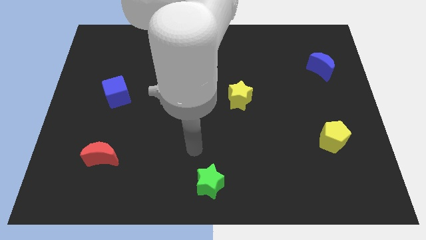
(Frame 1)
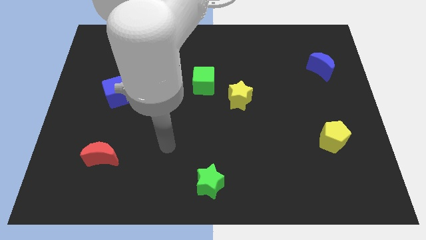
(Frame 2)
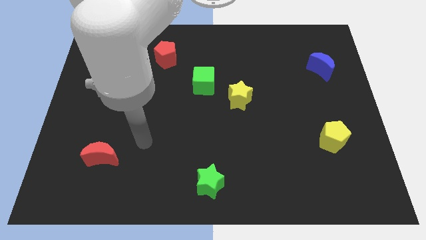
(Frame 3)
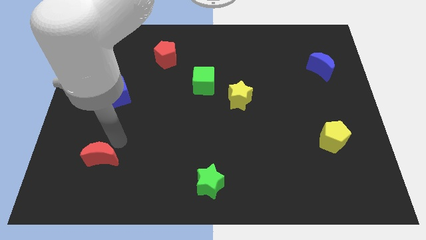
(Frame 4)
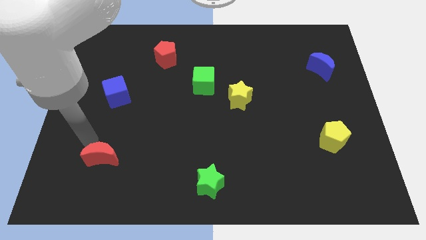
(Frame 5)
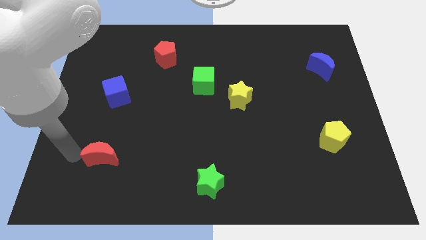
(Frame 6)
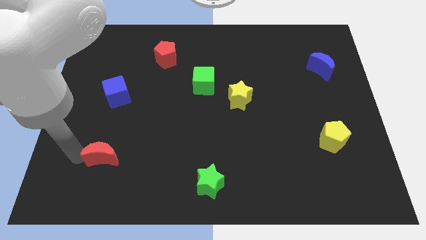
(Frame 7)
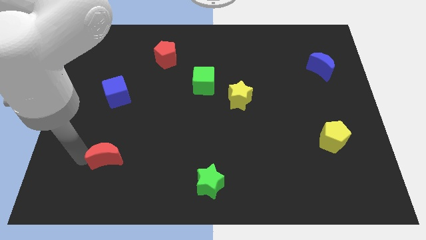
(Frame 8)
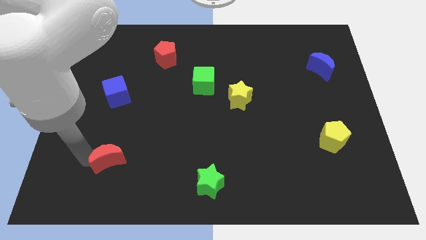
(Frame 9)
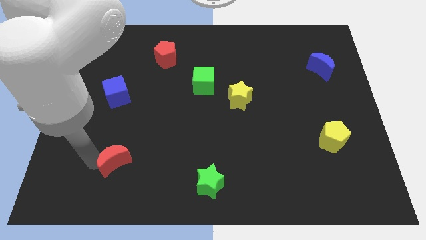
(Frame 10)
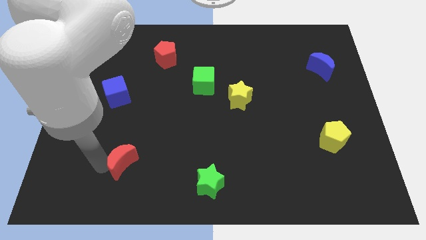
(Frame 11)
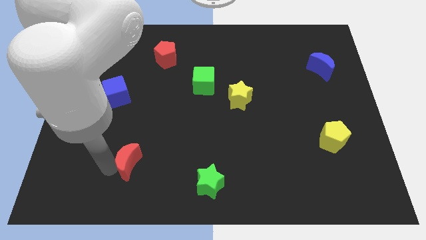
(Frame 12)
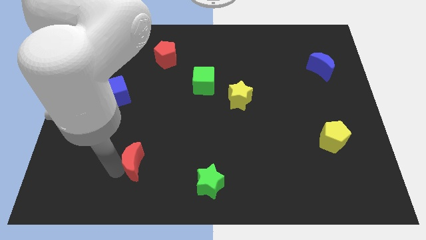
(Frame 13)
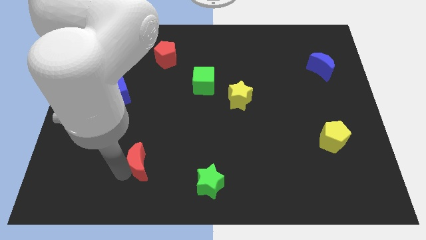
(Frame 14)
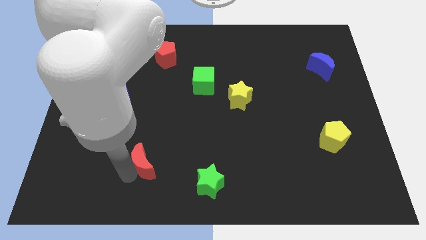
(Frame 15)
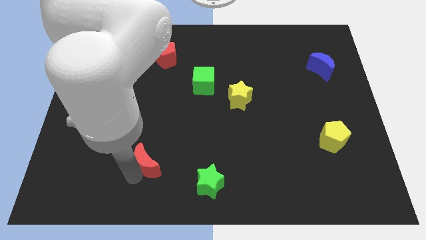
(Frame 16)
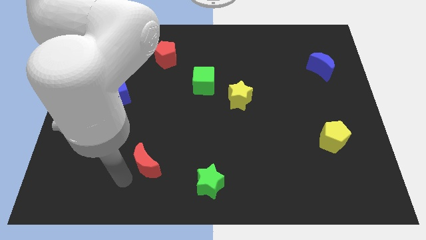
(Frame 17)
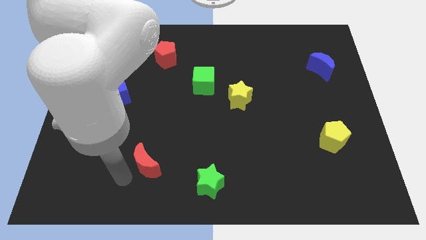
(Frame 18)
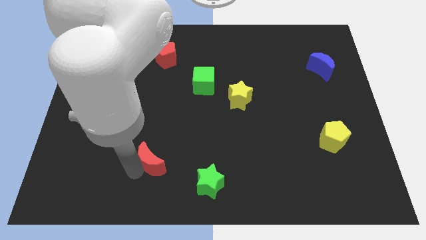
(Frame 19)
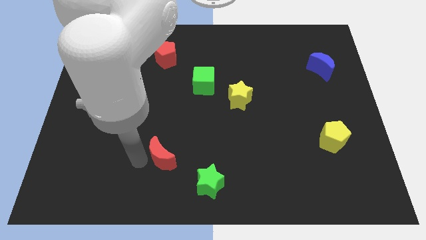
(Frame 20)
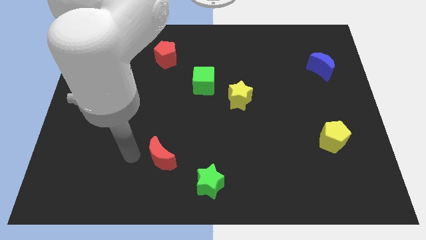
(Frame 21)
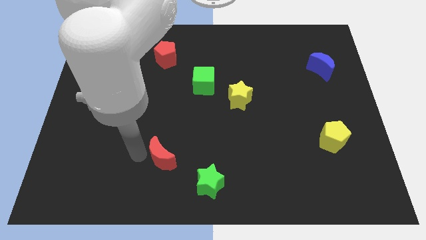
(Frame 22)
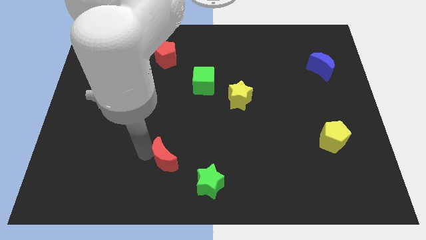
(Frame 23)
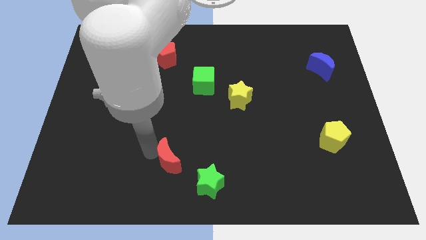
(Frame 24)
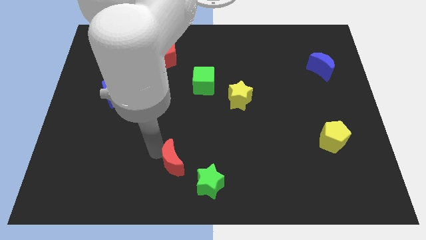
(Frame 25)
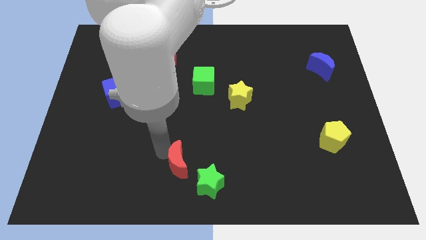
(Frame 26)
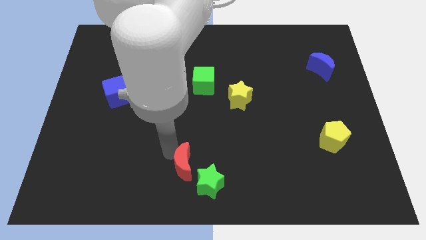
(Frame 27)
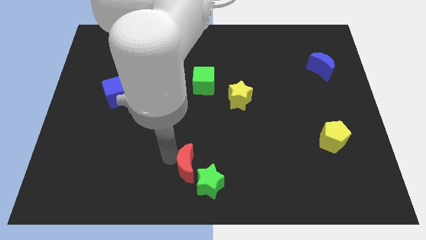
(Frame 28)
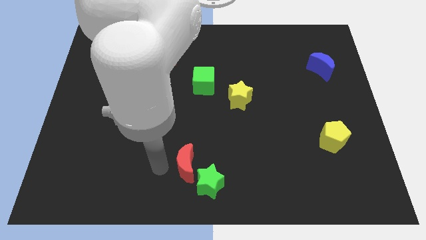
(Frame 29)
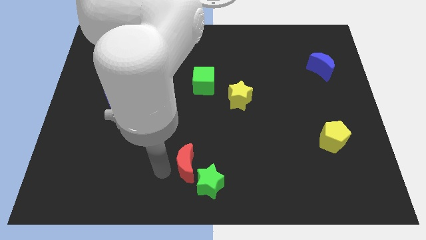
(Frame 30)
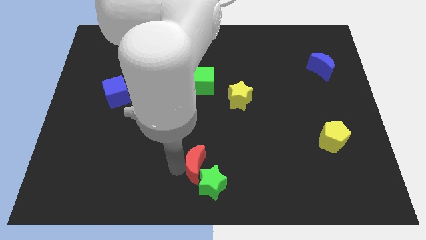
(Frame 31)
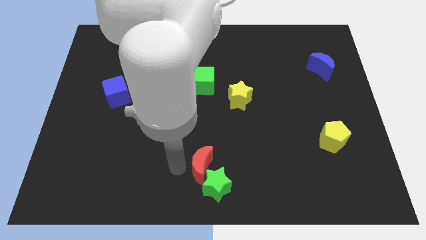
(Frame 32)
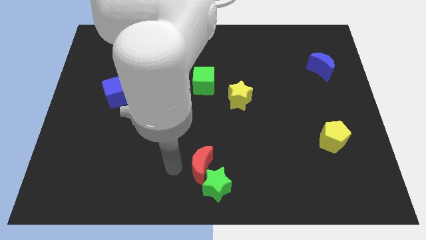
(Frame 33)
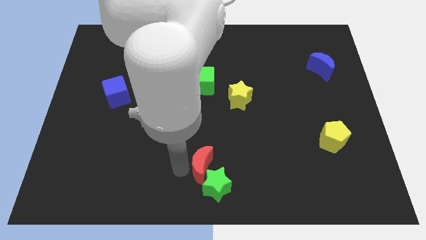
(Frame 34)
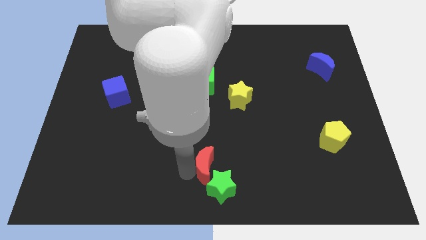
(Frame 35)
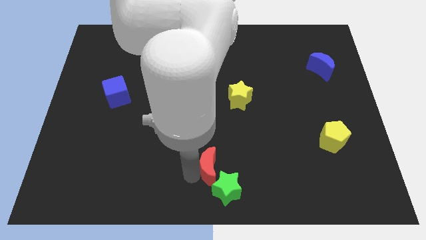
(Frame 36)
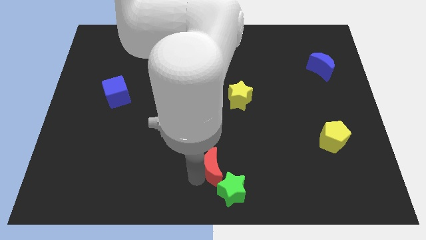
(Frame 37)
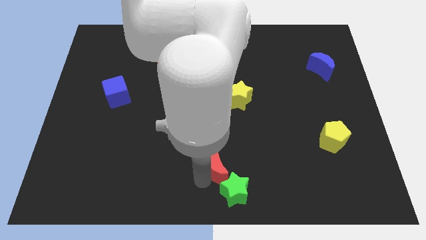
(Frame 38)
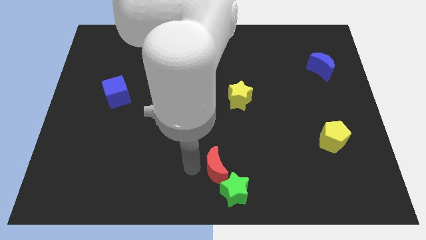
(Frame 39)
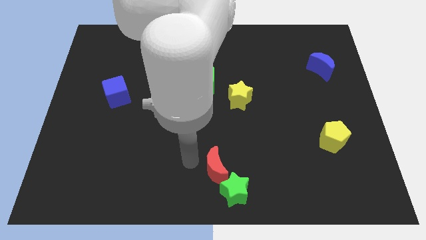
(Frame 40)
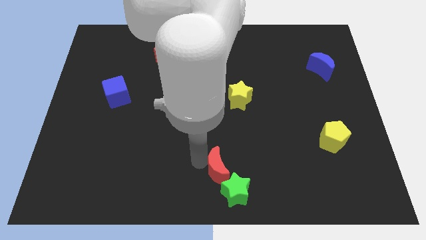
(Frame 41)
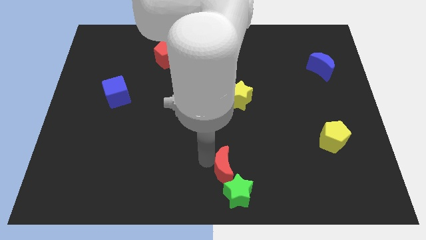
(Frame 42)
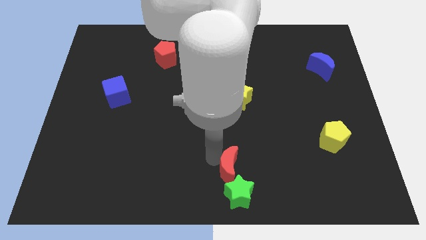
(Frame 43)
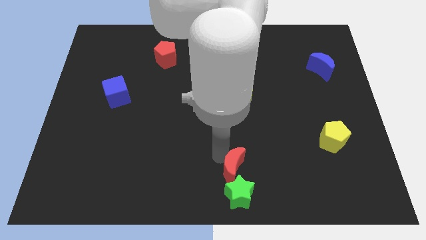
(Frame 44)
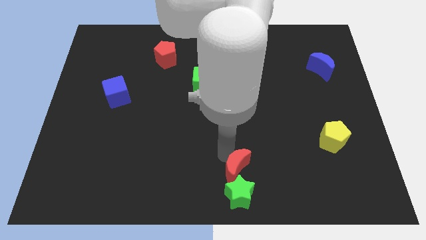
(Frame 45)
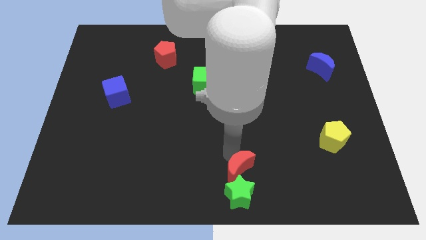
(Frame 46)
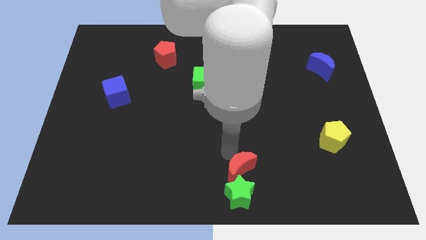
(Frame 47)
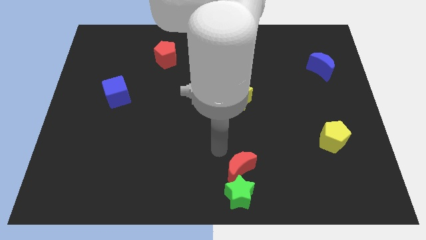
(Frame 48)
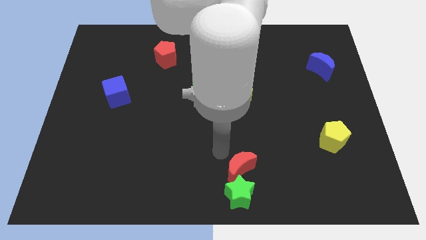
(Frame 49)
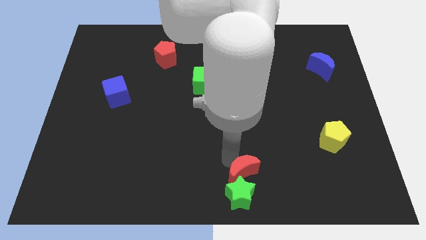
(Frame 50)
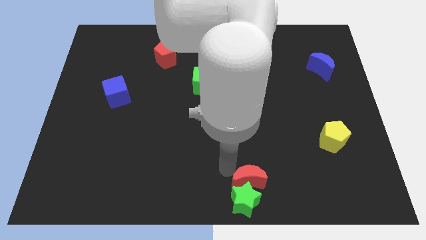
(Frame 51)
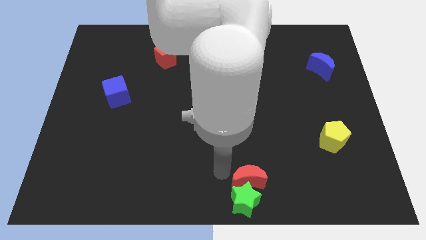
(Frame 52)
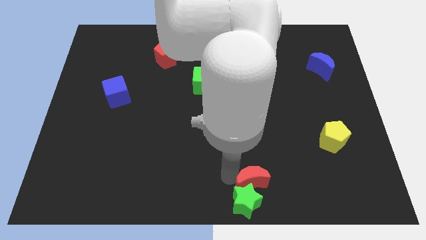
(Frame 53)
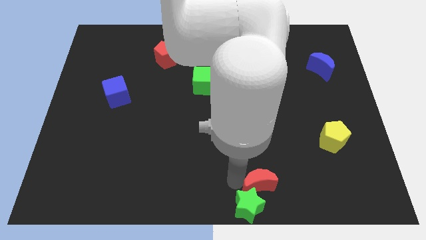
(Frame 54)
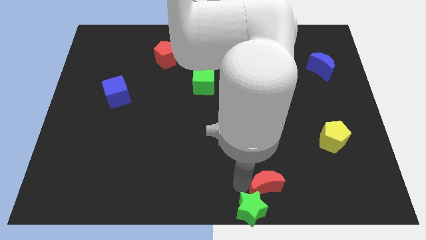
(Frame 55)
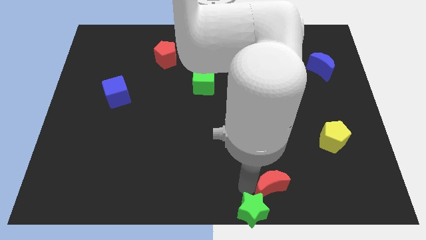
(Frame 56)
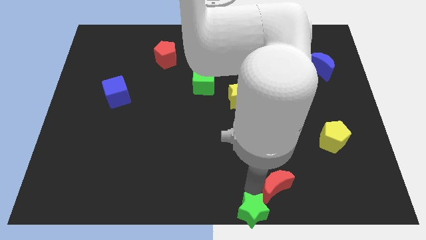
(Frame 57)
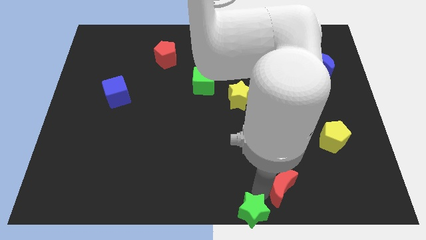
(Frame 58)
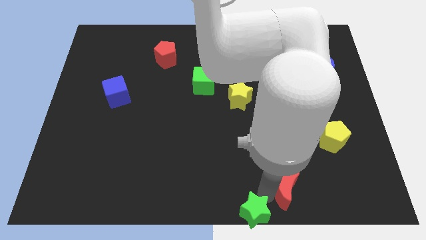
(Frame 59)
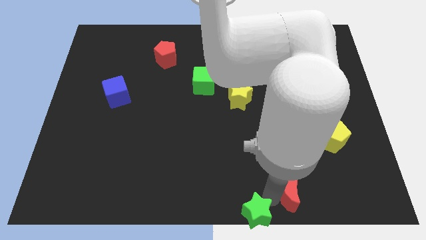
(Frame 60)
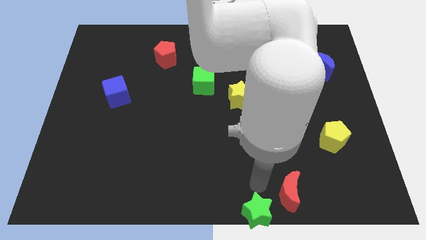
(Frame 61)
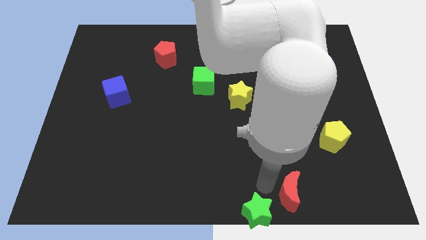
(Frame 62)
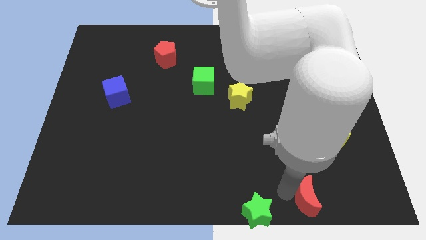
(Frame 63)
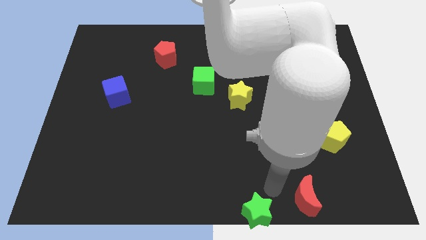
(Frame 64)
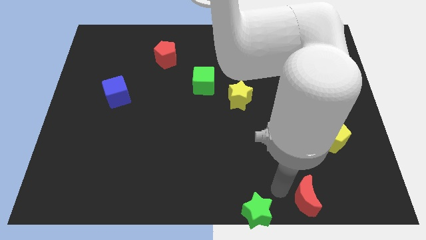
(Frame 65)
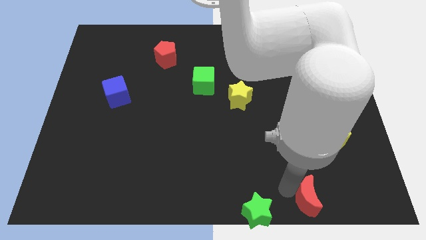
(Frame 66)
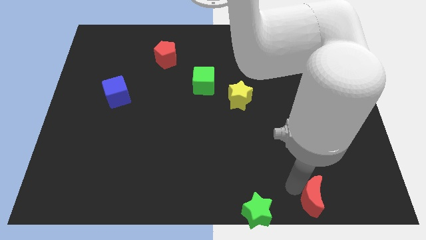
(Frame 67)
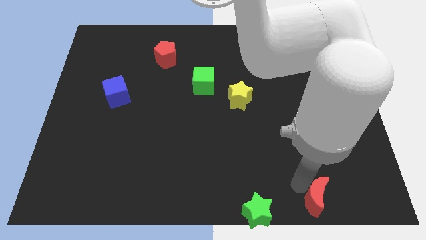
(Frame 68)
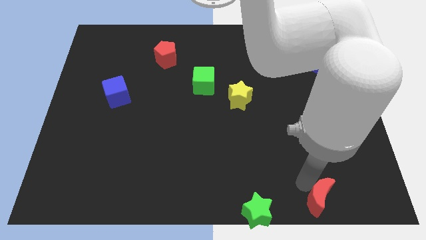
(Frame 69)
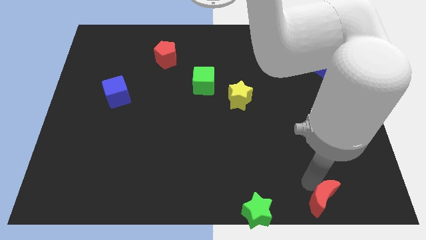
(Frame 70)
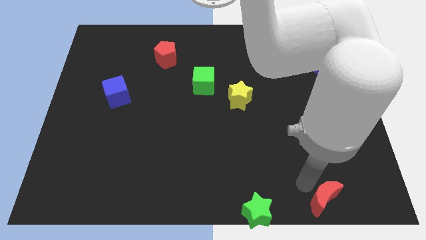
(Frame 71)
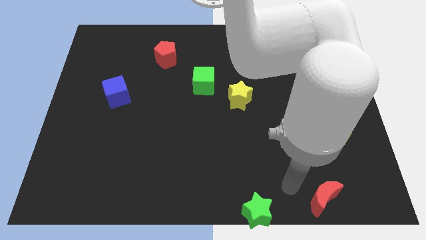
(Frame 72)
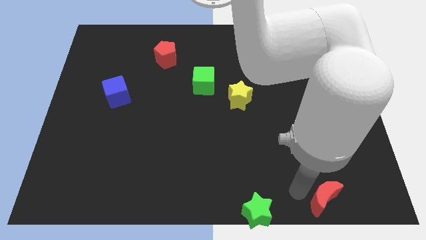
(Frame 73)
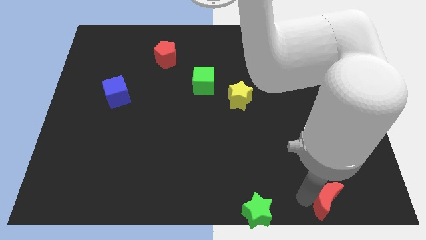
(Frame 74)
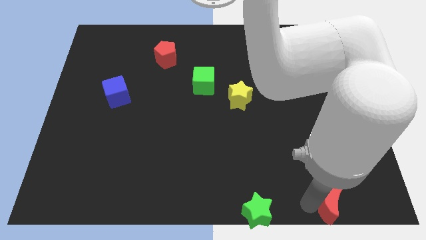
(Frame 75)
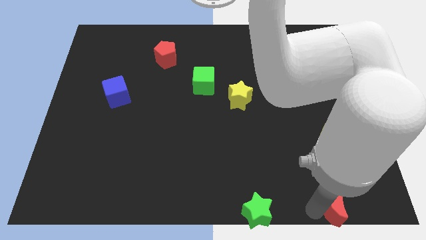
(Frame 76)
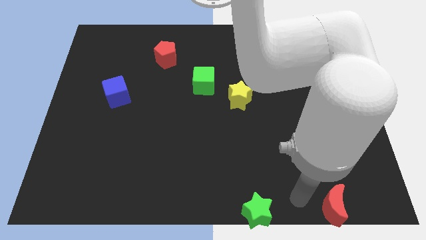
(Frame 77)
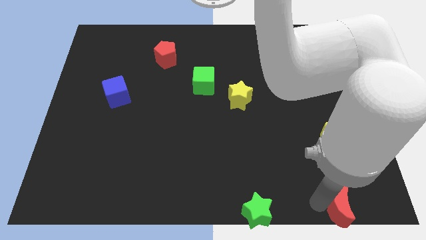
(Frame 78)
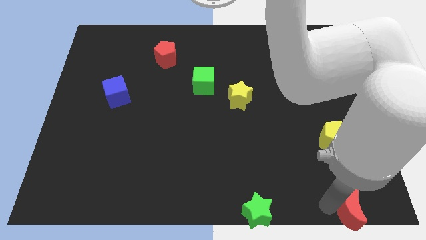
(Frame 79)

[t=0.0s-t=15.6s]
move the red moon to the bottom right of the board
